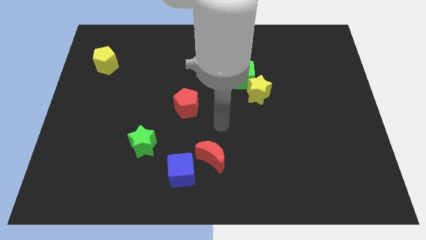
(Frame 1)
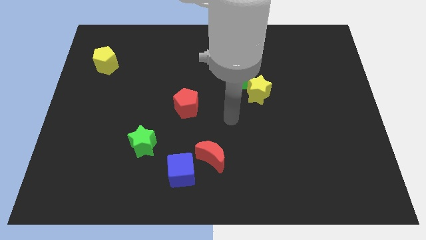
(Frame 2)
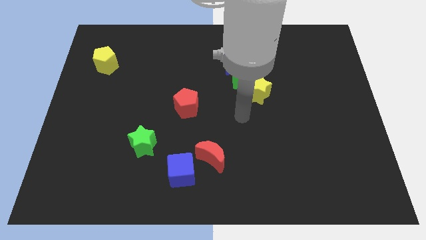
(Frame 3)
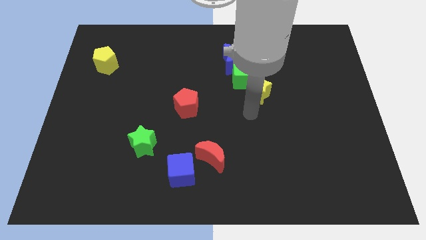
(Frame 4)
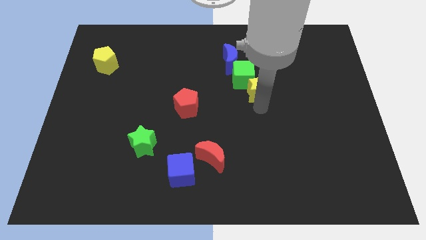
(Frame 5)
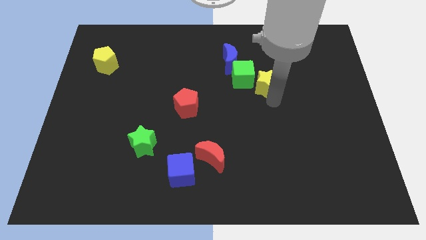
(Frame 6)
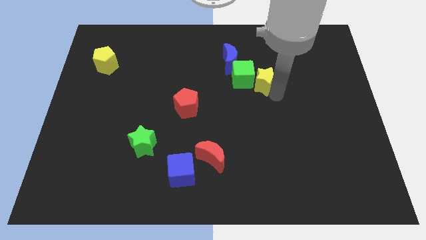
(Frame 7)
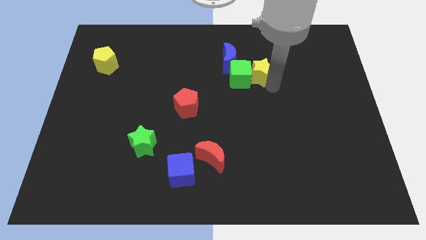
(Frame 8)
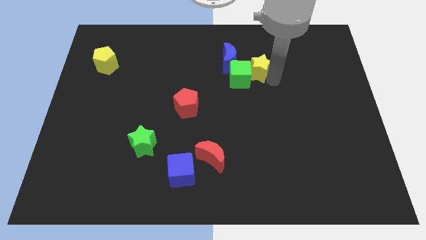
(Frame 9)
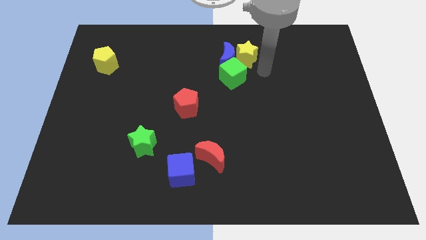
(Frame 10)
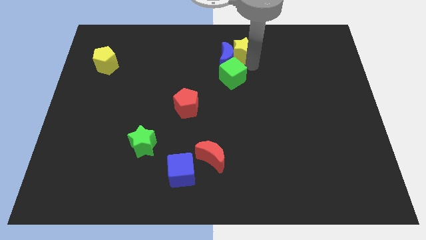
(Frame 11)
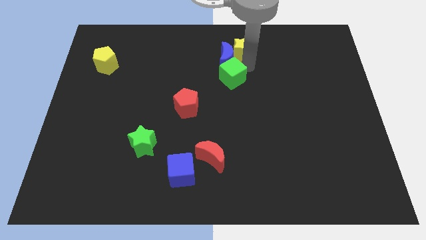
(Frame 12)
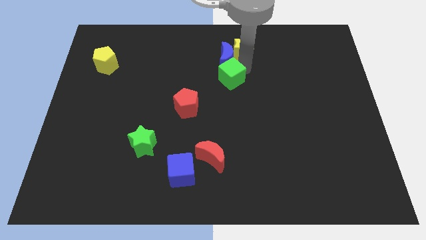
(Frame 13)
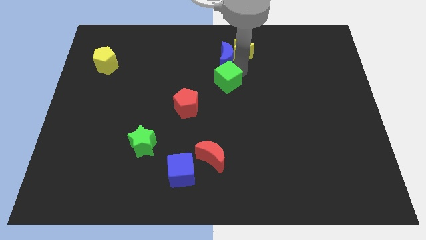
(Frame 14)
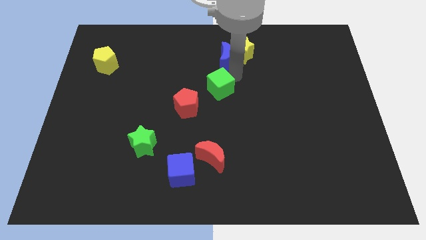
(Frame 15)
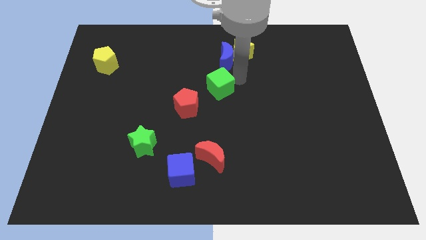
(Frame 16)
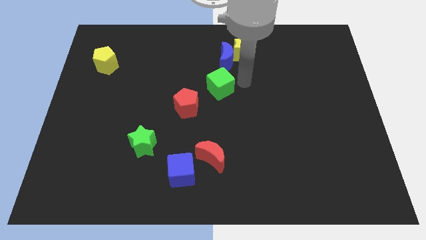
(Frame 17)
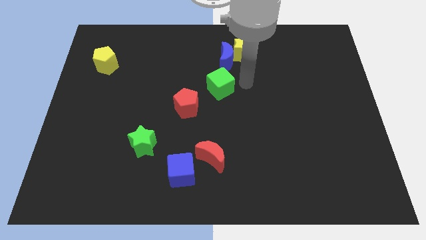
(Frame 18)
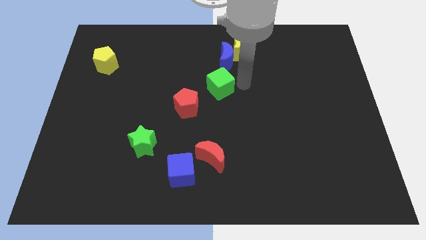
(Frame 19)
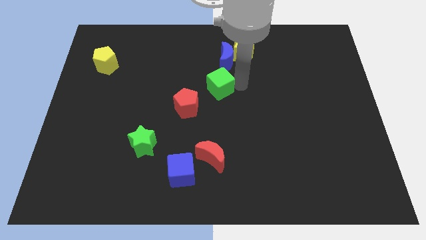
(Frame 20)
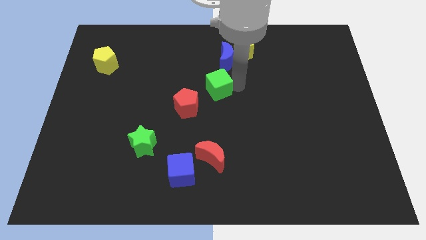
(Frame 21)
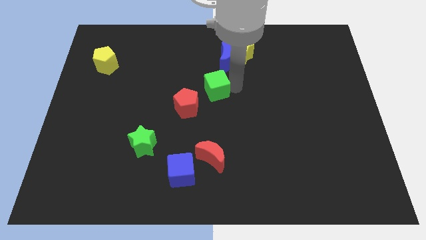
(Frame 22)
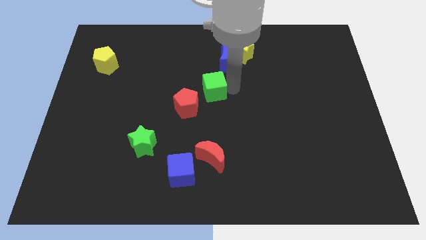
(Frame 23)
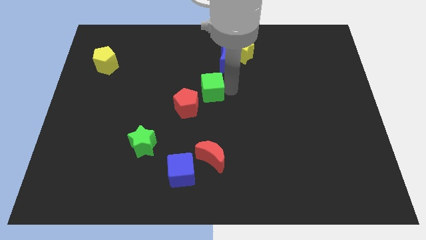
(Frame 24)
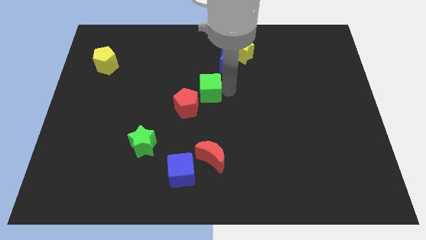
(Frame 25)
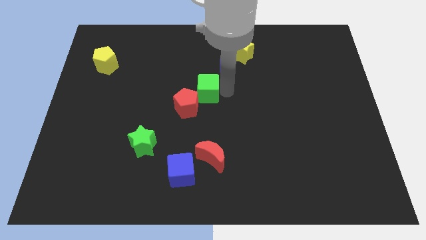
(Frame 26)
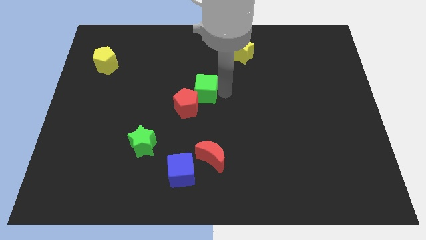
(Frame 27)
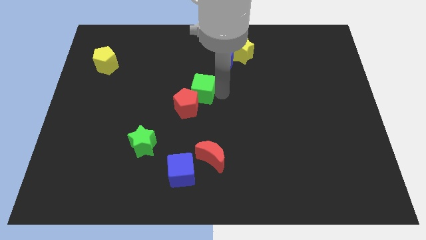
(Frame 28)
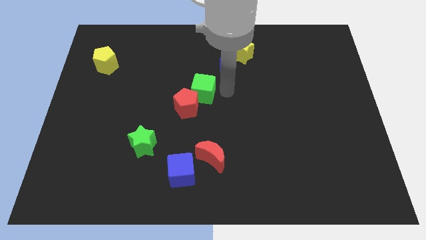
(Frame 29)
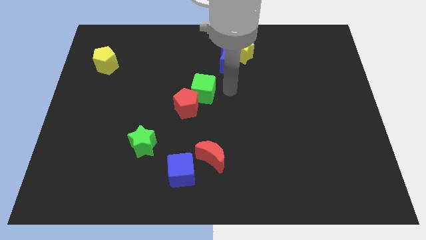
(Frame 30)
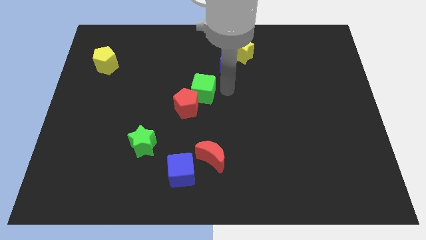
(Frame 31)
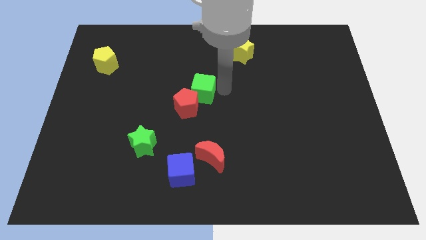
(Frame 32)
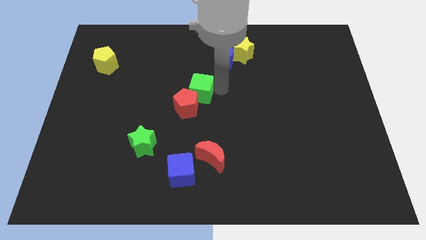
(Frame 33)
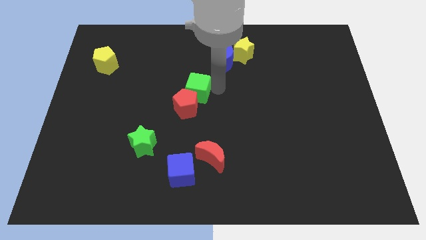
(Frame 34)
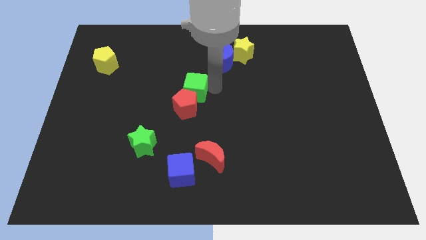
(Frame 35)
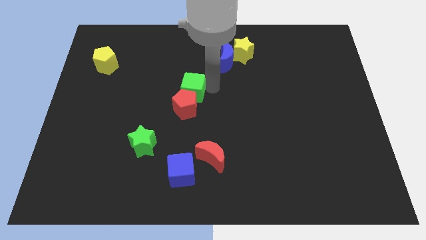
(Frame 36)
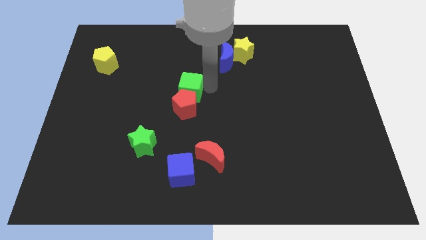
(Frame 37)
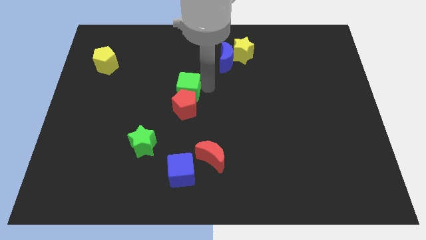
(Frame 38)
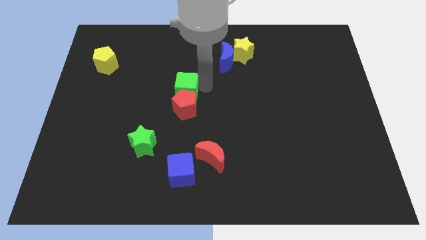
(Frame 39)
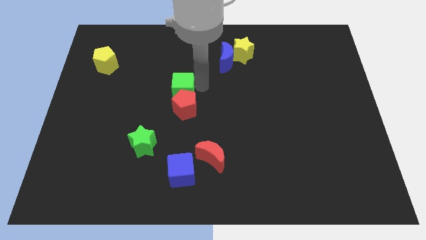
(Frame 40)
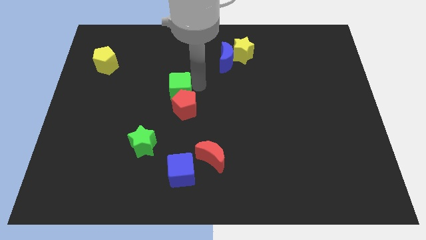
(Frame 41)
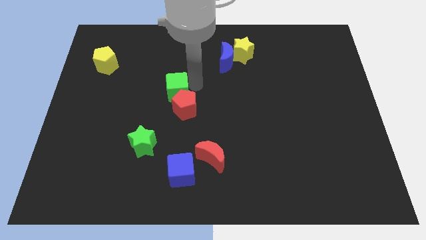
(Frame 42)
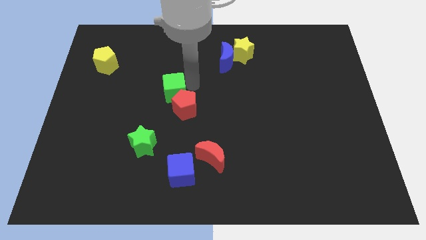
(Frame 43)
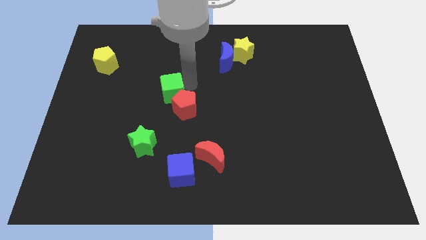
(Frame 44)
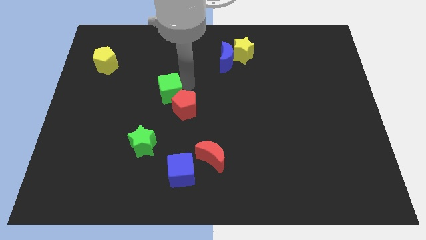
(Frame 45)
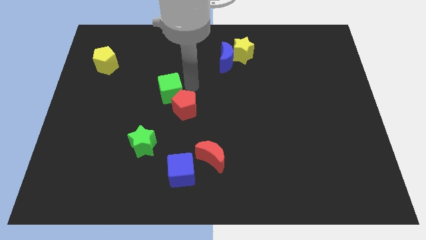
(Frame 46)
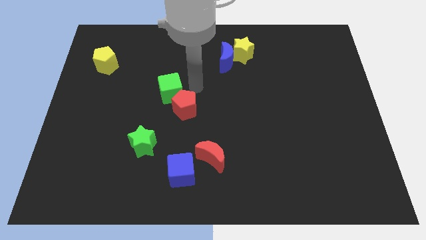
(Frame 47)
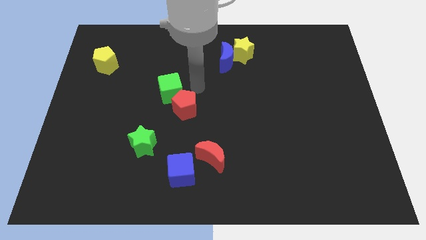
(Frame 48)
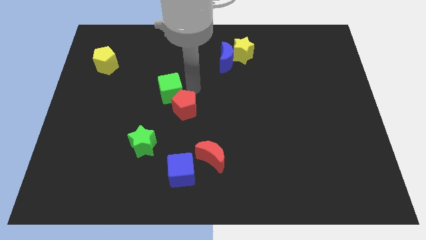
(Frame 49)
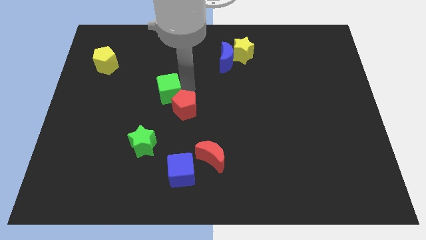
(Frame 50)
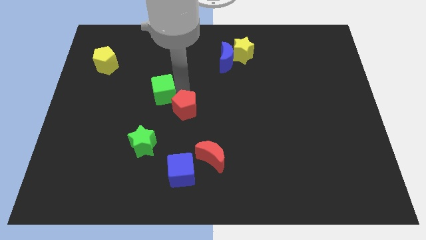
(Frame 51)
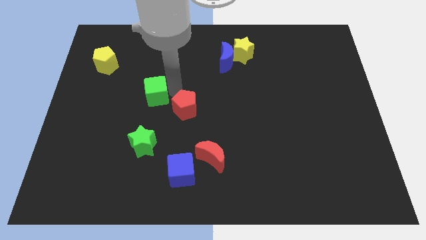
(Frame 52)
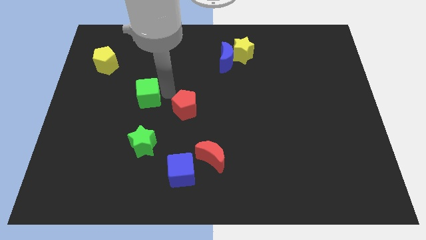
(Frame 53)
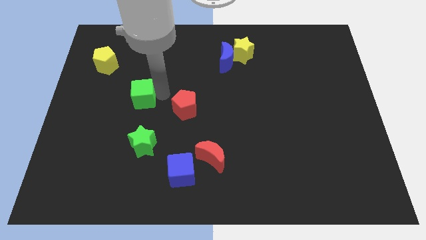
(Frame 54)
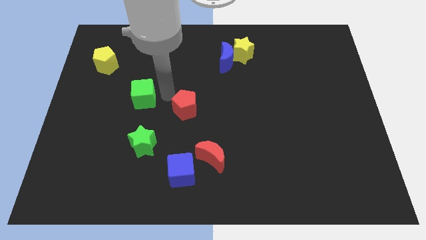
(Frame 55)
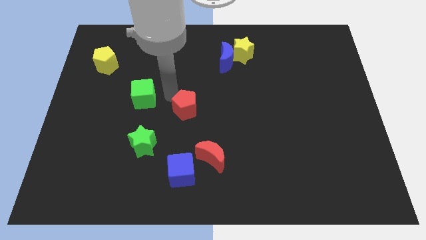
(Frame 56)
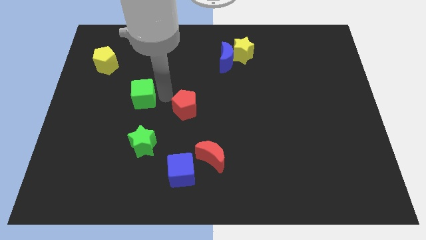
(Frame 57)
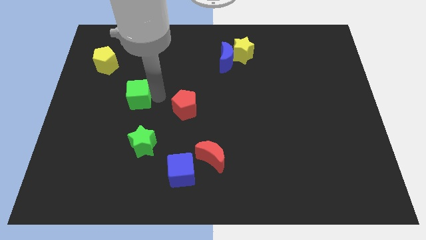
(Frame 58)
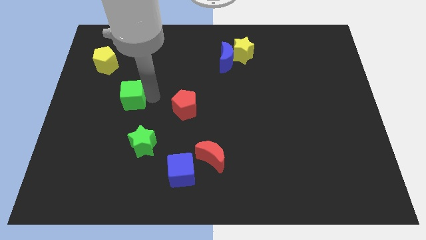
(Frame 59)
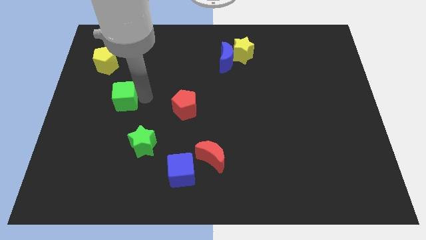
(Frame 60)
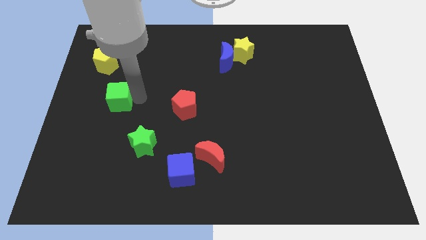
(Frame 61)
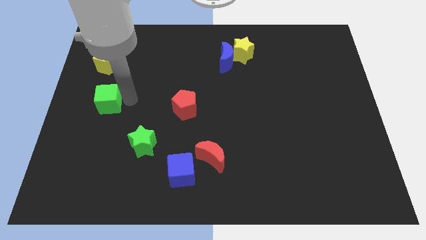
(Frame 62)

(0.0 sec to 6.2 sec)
move the green cube to the left side
